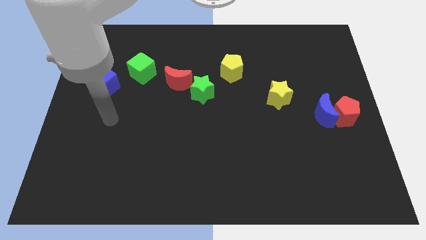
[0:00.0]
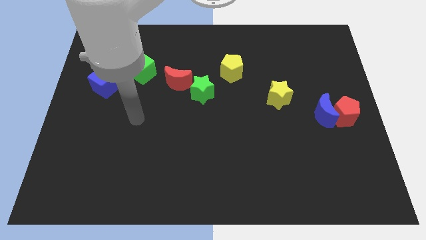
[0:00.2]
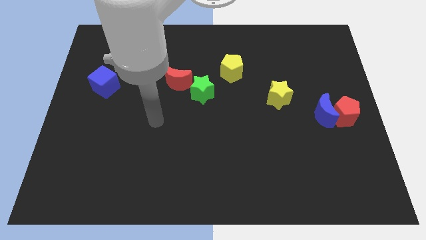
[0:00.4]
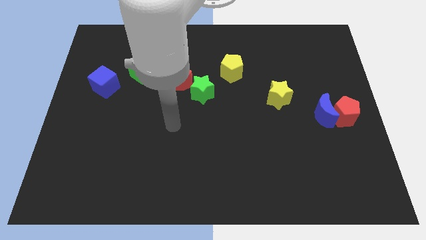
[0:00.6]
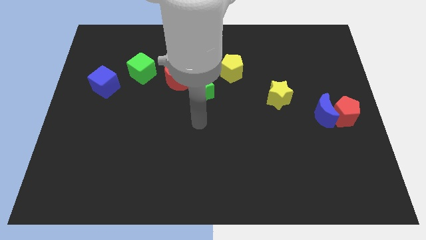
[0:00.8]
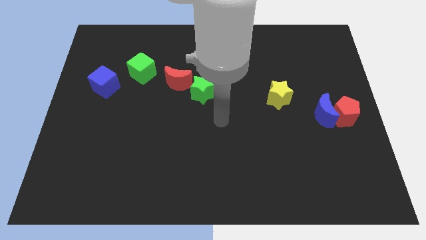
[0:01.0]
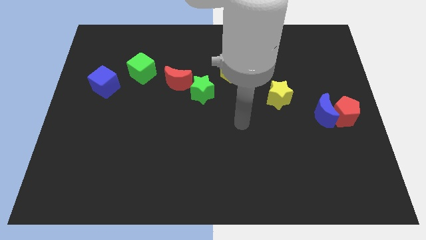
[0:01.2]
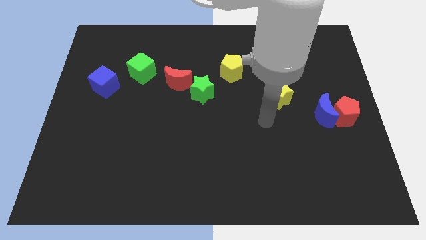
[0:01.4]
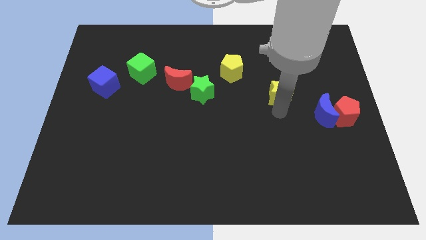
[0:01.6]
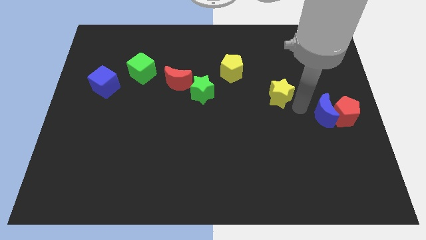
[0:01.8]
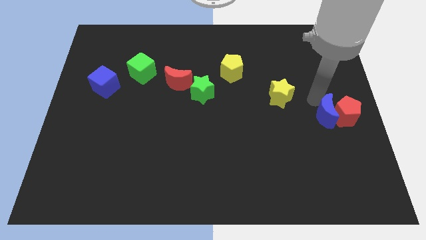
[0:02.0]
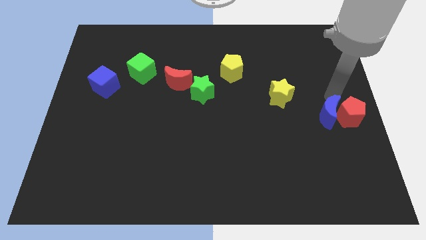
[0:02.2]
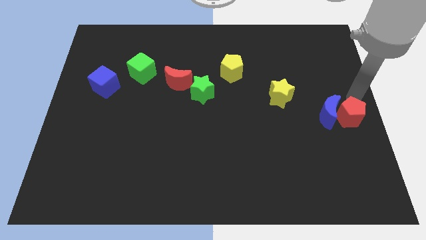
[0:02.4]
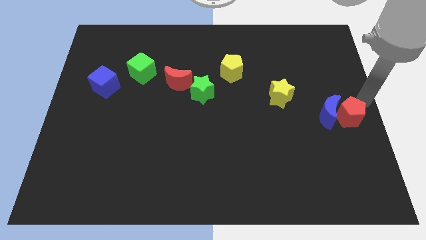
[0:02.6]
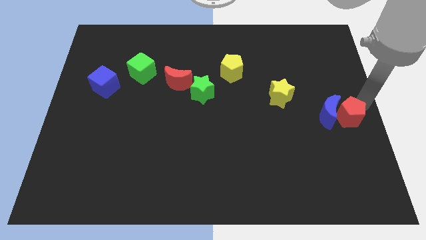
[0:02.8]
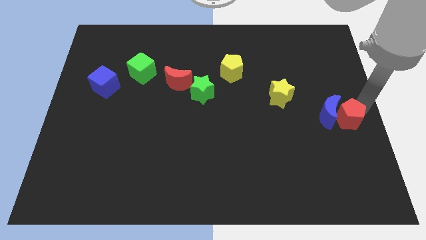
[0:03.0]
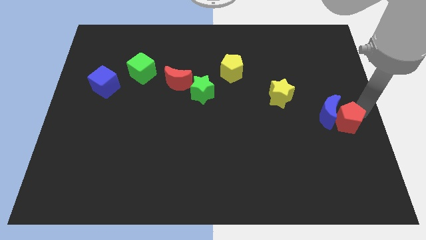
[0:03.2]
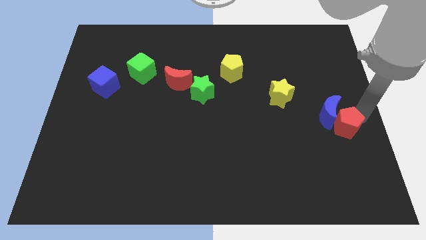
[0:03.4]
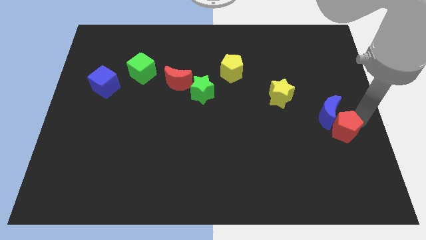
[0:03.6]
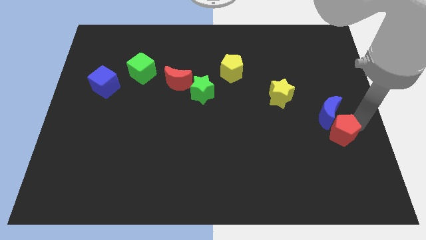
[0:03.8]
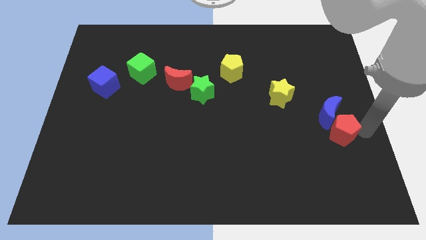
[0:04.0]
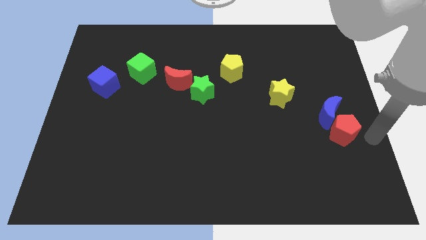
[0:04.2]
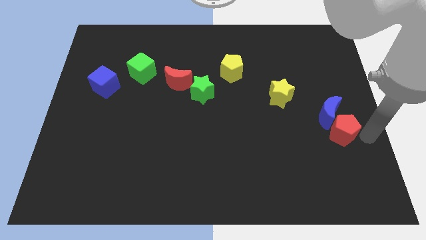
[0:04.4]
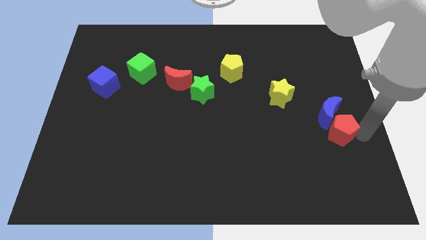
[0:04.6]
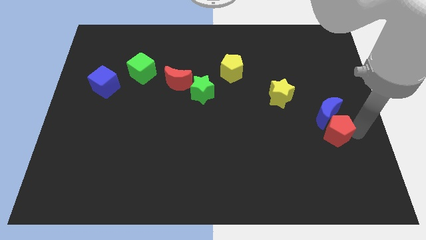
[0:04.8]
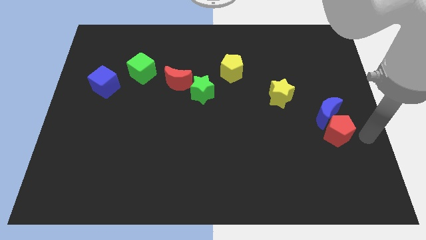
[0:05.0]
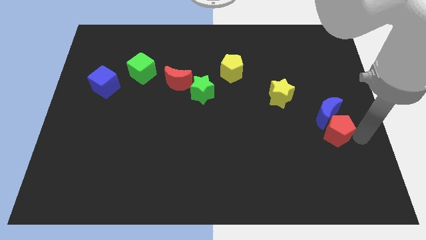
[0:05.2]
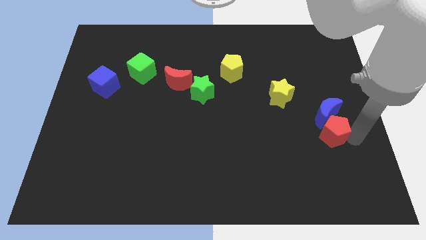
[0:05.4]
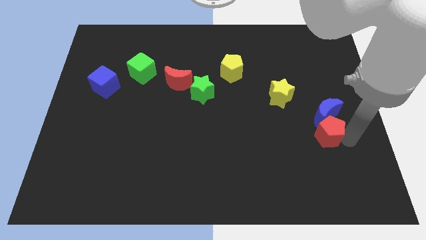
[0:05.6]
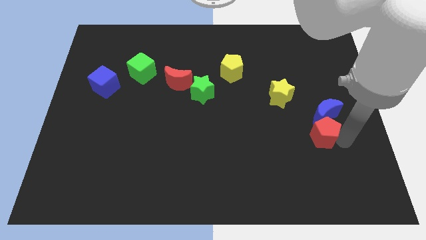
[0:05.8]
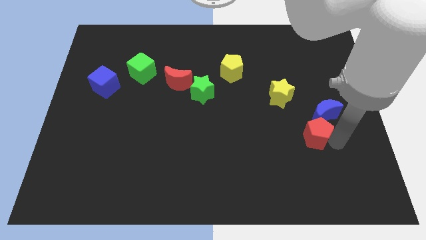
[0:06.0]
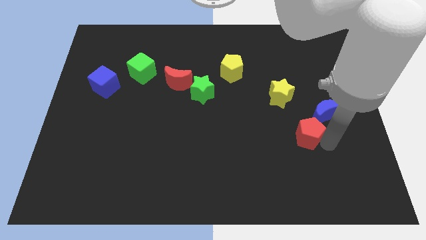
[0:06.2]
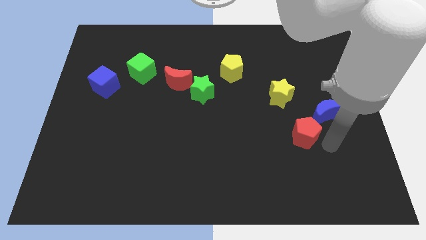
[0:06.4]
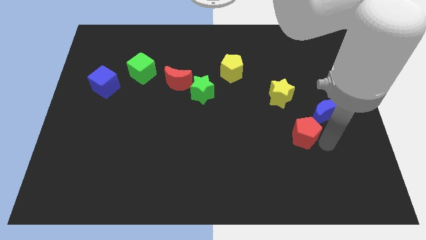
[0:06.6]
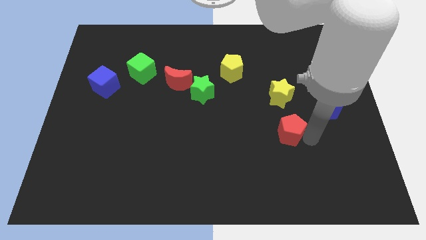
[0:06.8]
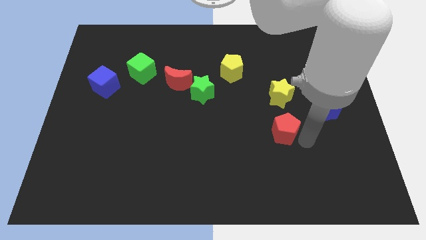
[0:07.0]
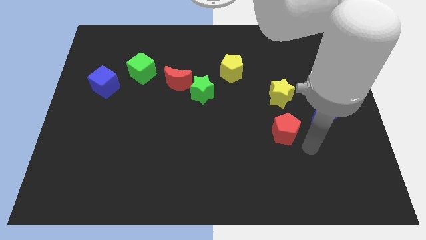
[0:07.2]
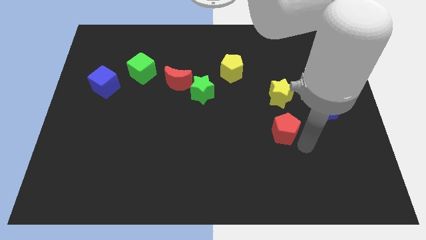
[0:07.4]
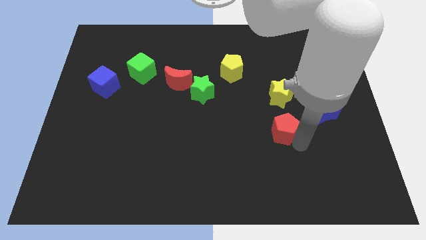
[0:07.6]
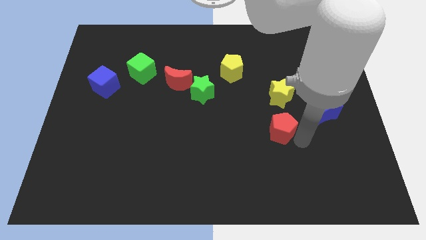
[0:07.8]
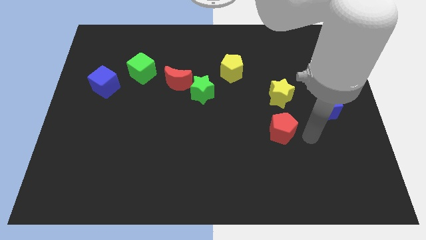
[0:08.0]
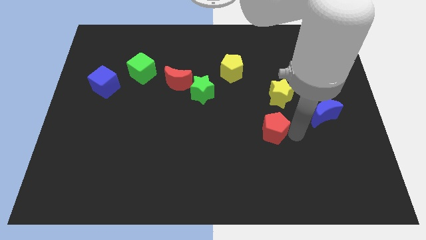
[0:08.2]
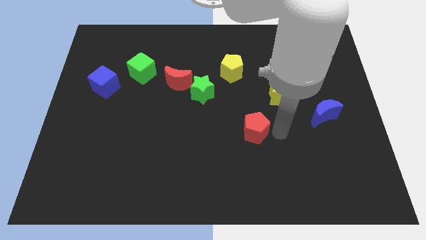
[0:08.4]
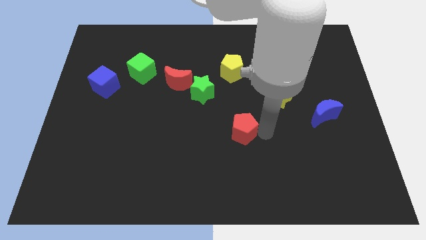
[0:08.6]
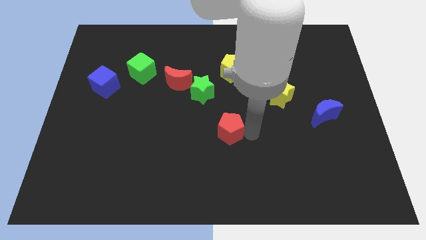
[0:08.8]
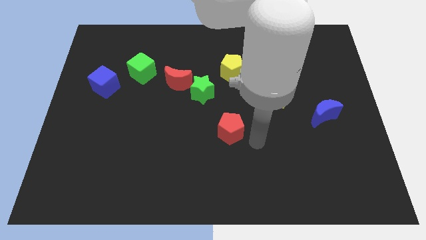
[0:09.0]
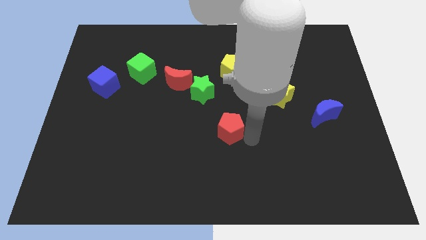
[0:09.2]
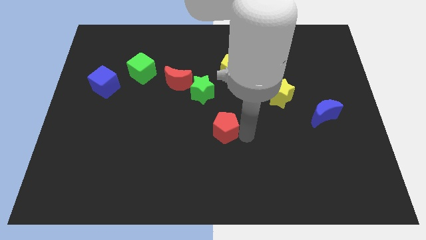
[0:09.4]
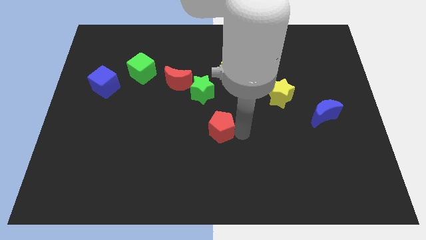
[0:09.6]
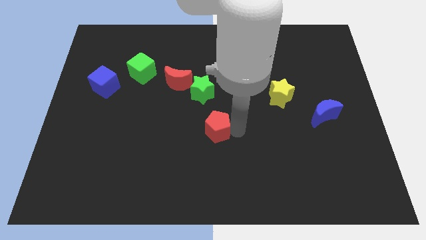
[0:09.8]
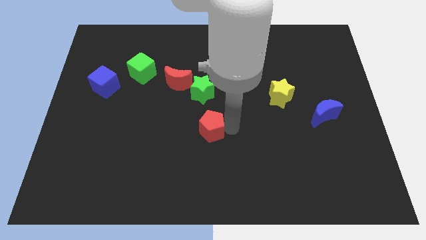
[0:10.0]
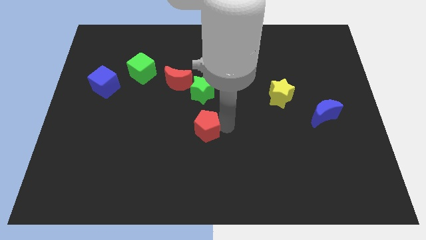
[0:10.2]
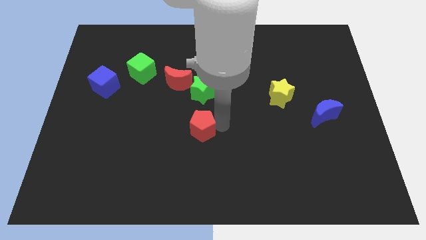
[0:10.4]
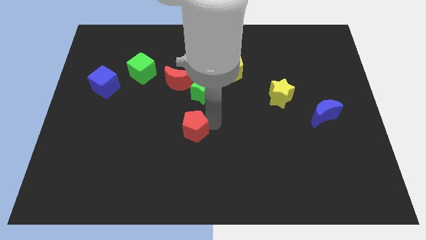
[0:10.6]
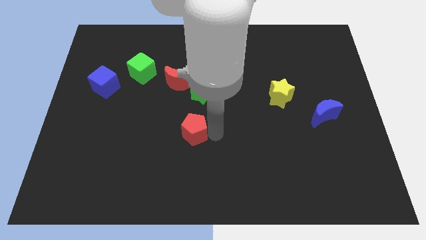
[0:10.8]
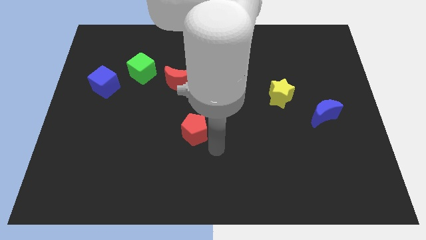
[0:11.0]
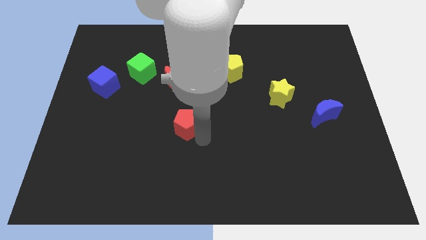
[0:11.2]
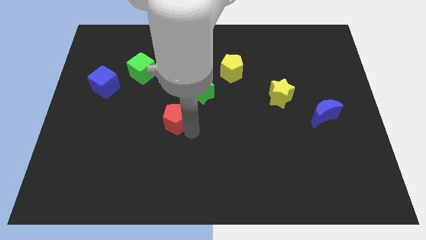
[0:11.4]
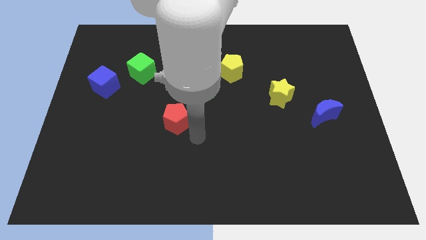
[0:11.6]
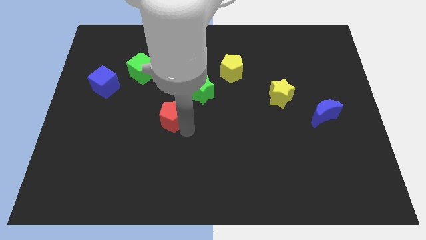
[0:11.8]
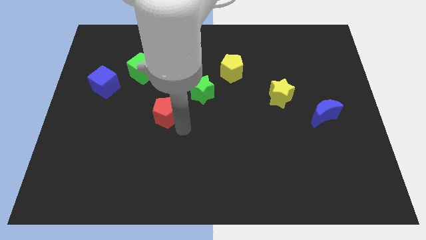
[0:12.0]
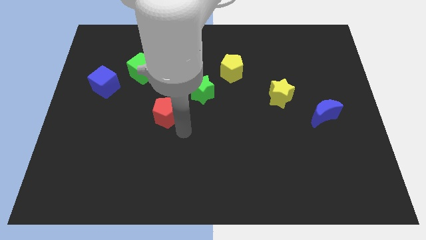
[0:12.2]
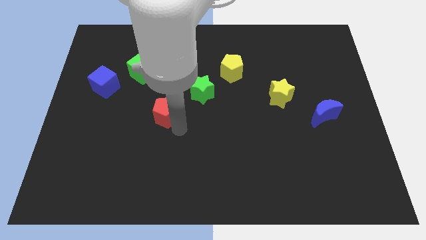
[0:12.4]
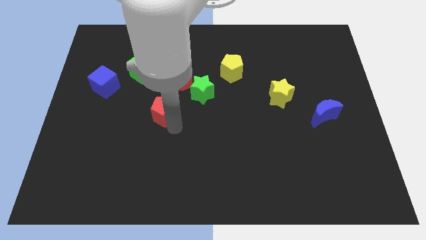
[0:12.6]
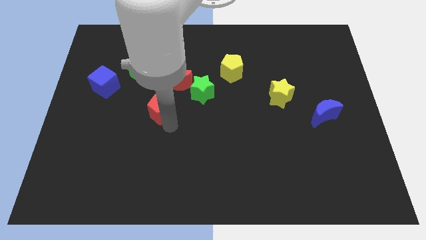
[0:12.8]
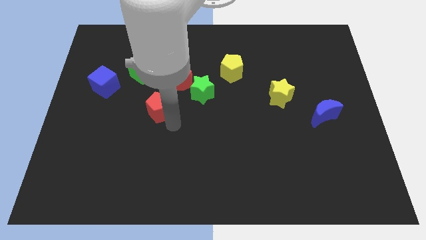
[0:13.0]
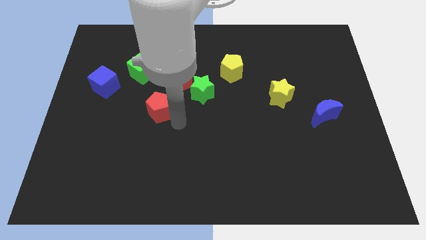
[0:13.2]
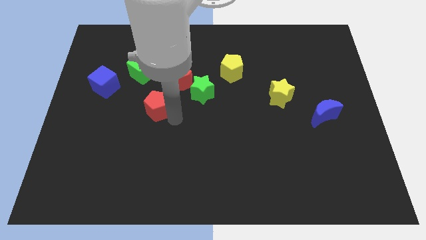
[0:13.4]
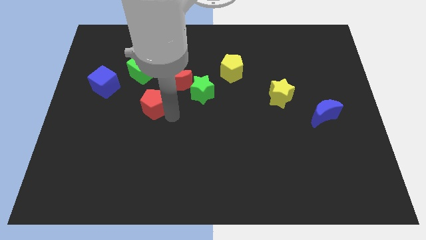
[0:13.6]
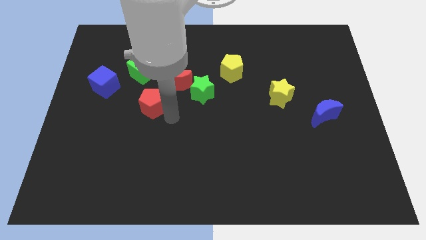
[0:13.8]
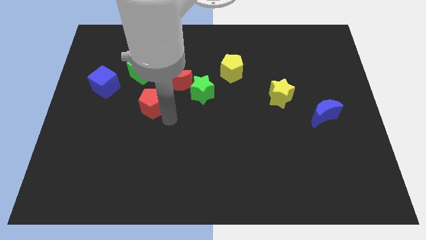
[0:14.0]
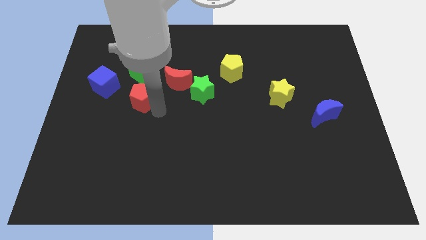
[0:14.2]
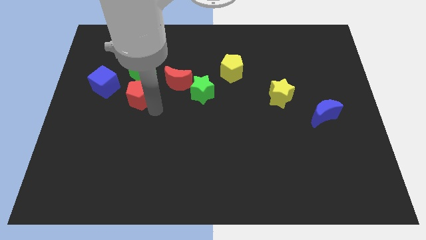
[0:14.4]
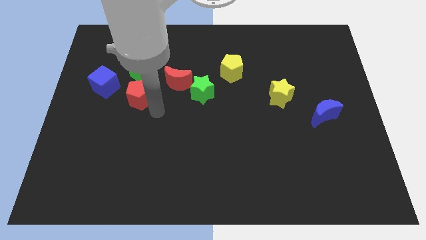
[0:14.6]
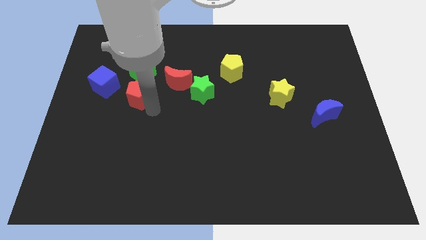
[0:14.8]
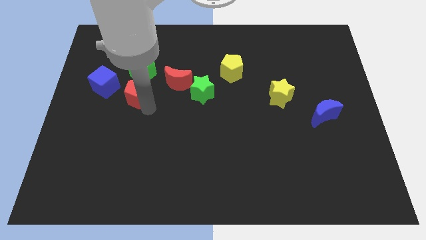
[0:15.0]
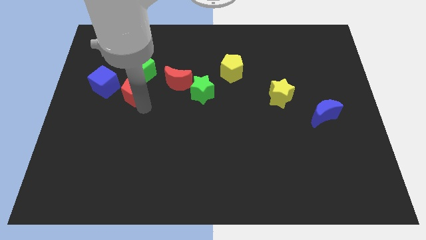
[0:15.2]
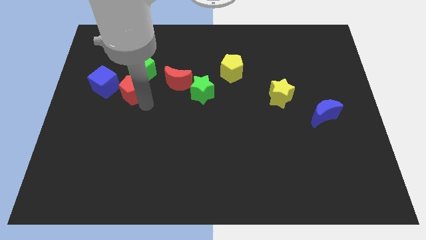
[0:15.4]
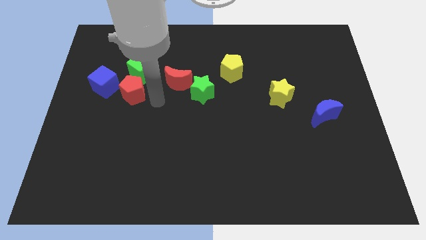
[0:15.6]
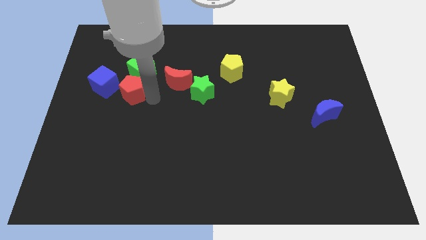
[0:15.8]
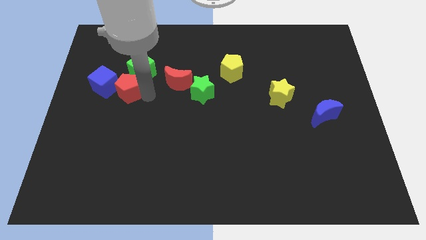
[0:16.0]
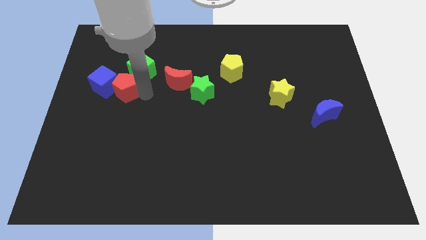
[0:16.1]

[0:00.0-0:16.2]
put the red pentagon close to the blue cube
